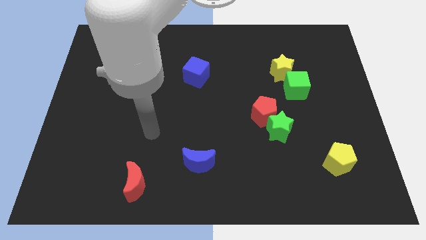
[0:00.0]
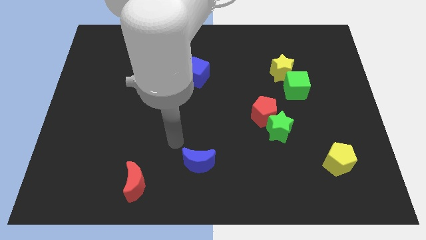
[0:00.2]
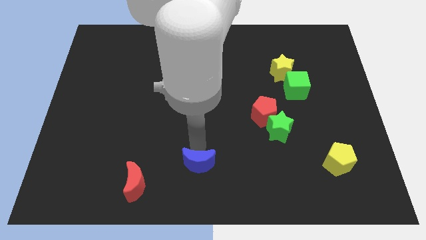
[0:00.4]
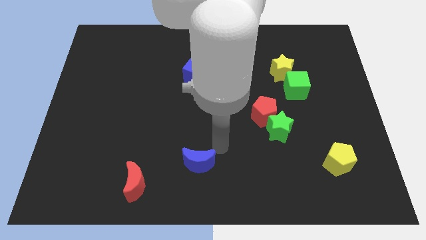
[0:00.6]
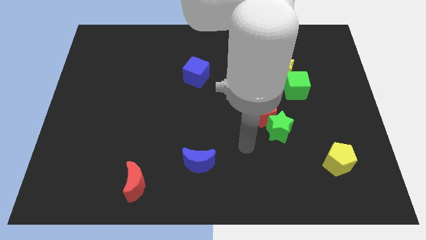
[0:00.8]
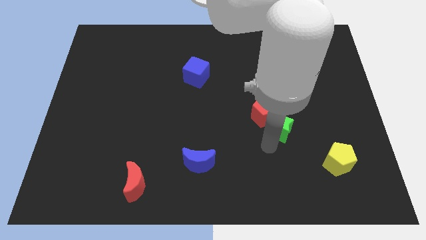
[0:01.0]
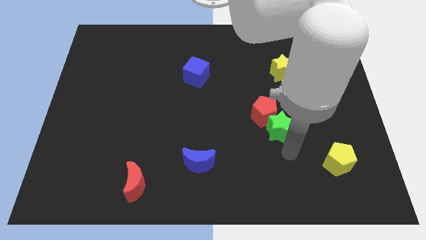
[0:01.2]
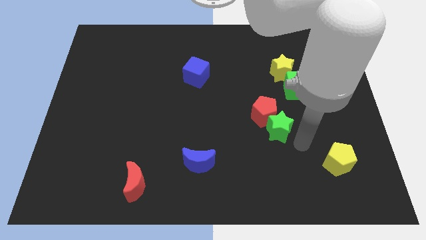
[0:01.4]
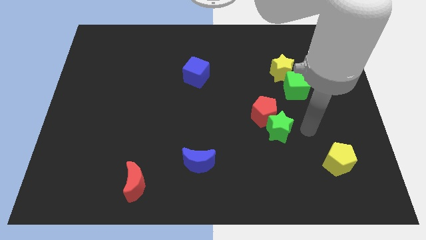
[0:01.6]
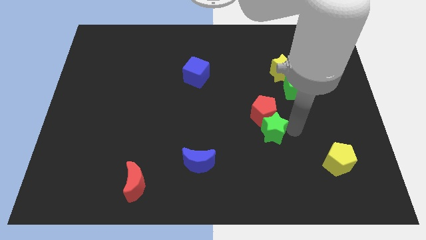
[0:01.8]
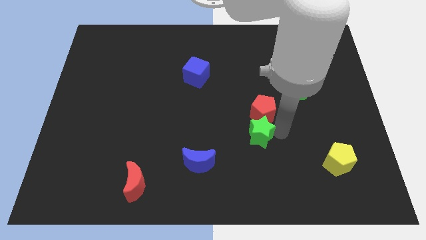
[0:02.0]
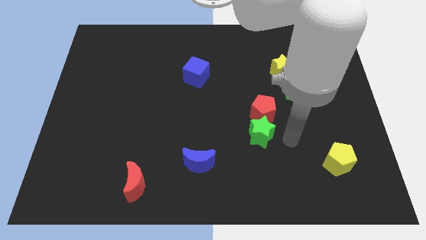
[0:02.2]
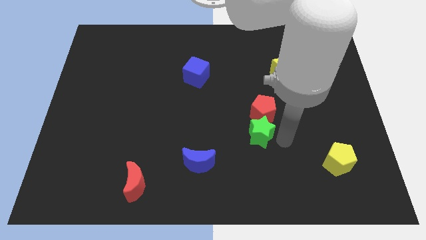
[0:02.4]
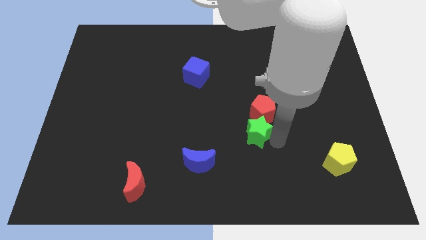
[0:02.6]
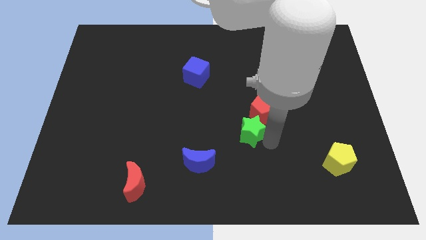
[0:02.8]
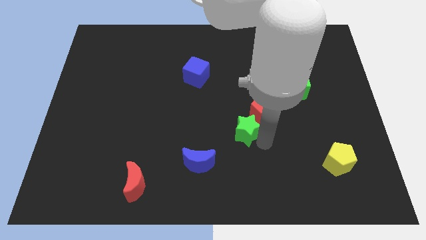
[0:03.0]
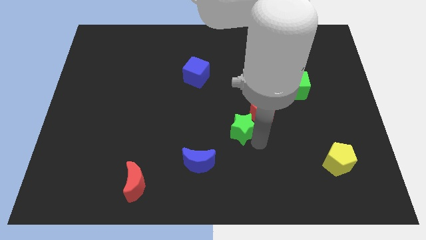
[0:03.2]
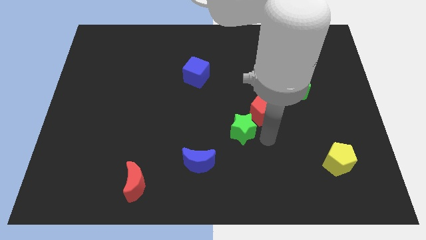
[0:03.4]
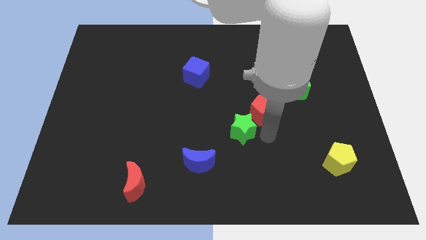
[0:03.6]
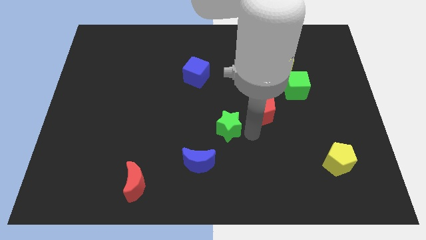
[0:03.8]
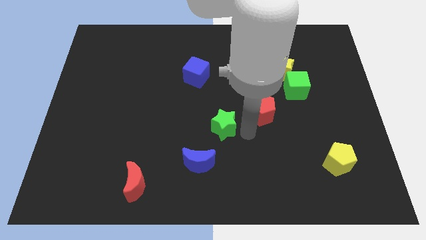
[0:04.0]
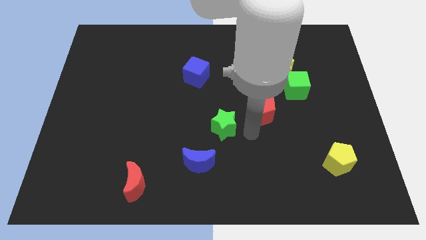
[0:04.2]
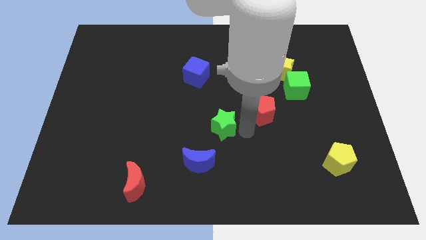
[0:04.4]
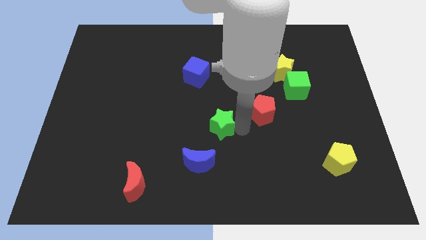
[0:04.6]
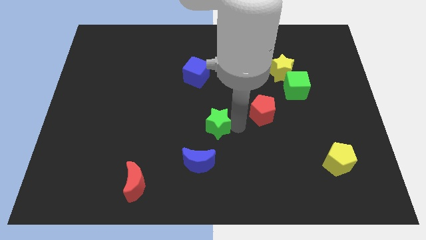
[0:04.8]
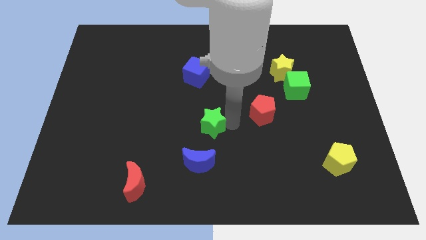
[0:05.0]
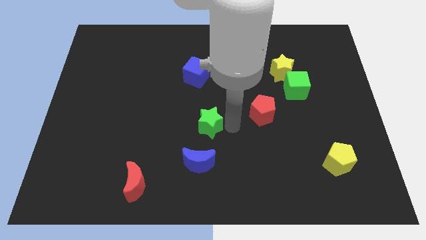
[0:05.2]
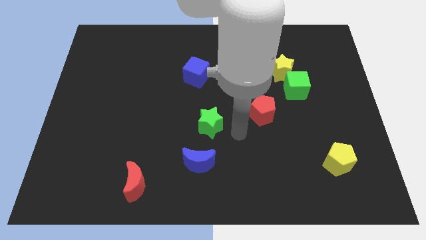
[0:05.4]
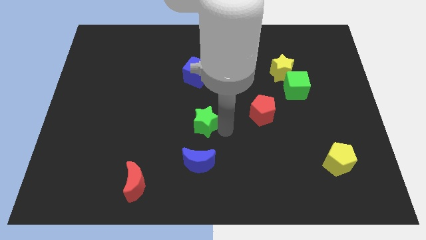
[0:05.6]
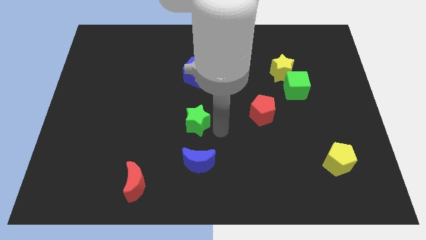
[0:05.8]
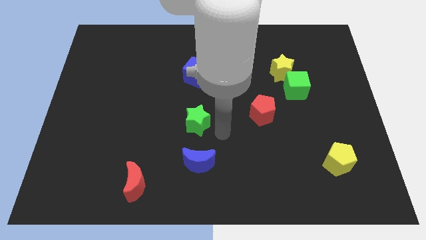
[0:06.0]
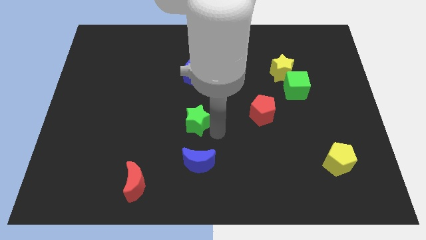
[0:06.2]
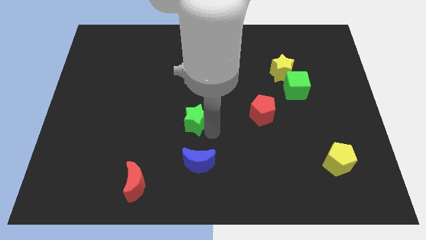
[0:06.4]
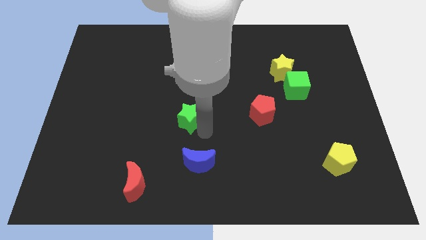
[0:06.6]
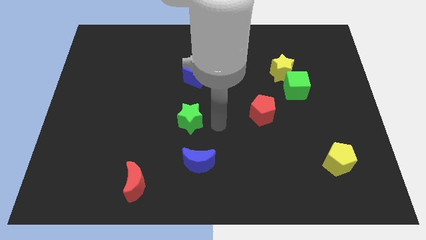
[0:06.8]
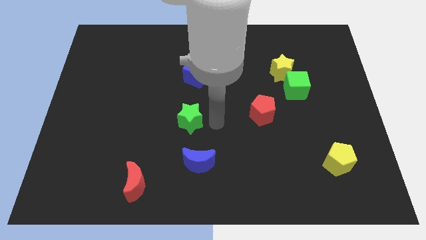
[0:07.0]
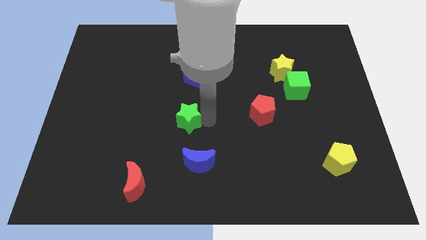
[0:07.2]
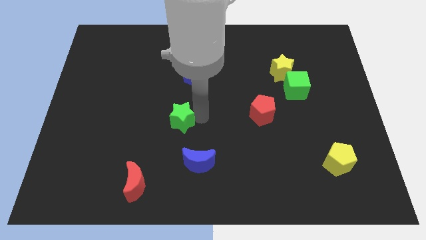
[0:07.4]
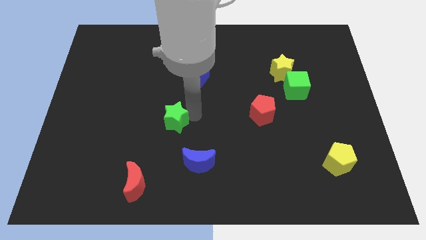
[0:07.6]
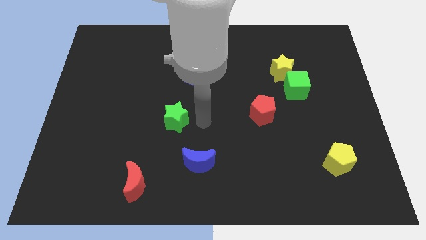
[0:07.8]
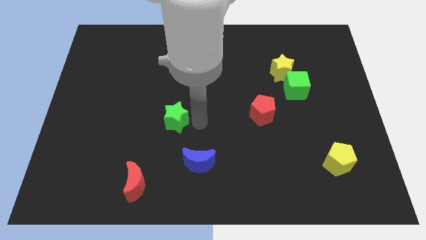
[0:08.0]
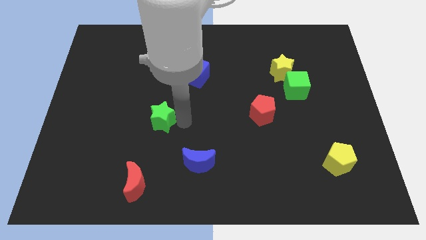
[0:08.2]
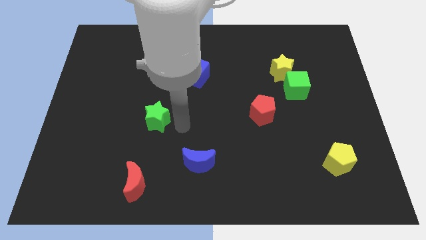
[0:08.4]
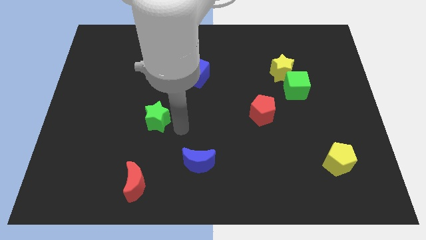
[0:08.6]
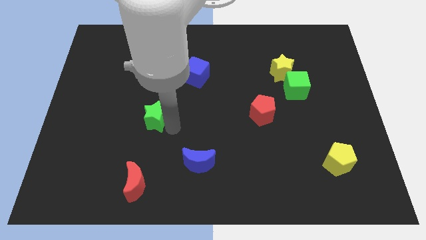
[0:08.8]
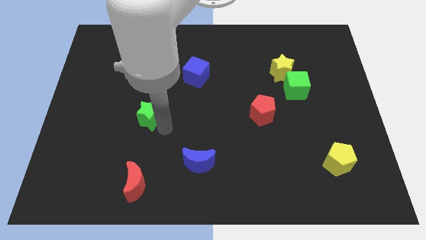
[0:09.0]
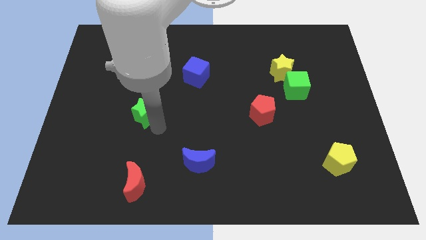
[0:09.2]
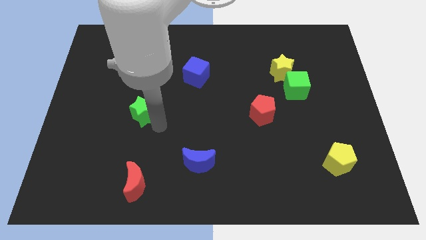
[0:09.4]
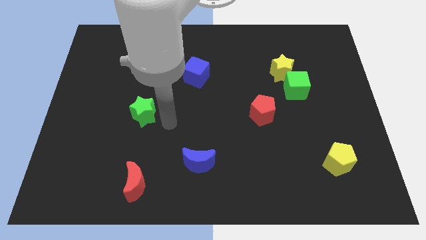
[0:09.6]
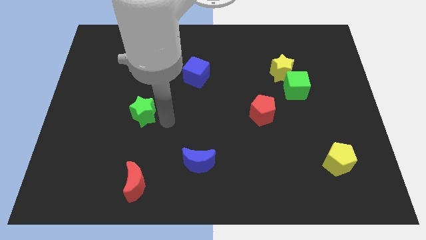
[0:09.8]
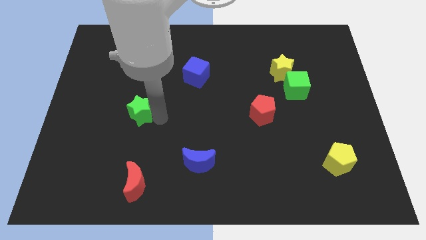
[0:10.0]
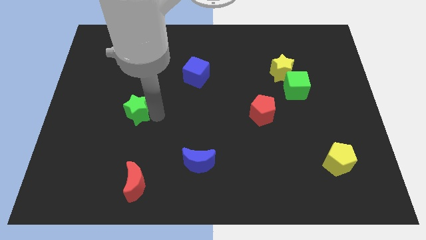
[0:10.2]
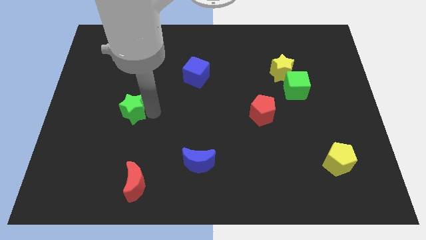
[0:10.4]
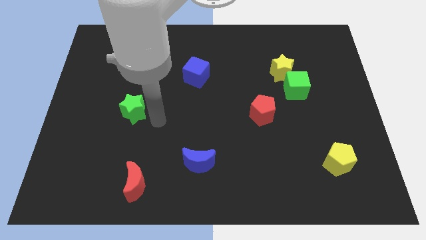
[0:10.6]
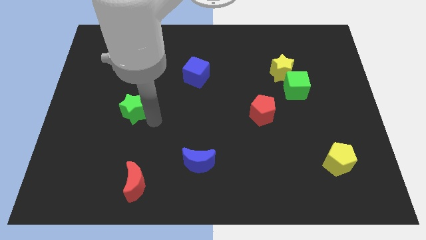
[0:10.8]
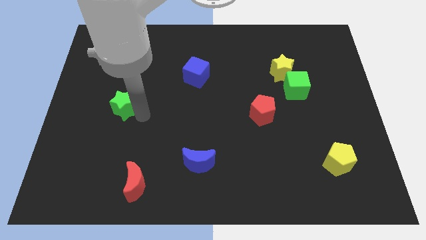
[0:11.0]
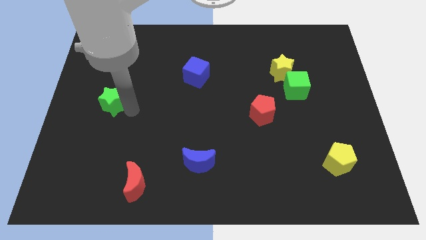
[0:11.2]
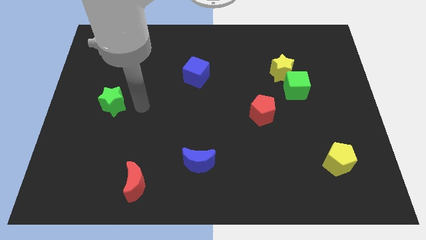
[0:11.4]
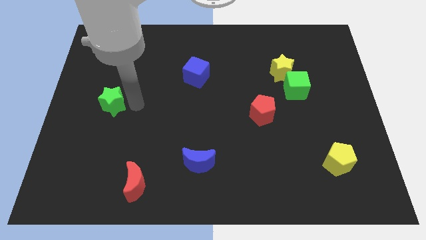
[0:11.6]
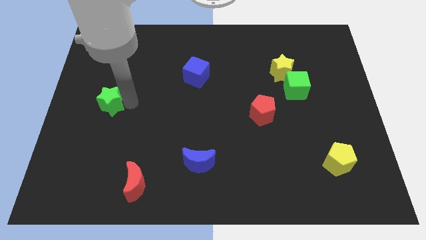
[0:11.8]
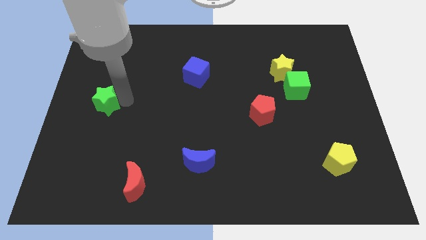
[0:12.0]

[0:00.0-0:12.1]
move the green star to the left side of the board
